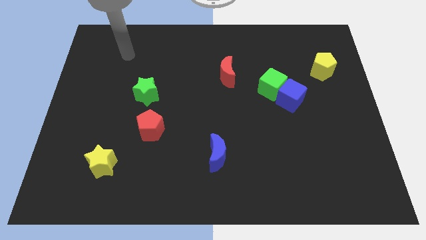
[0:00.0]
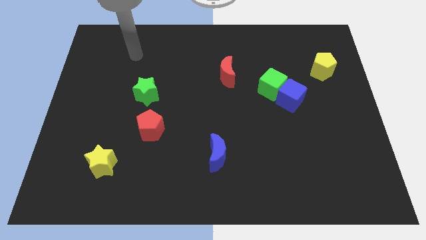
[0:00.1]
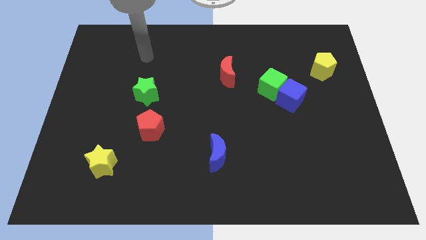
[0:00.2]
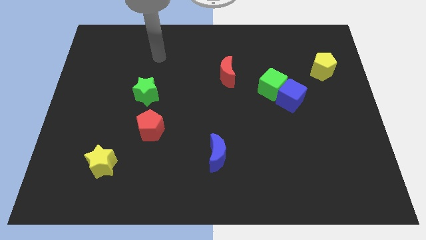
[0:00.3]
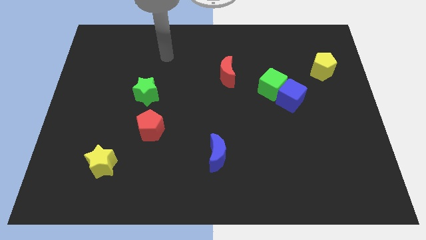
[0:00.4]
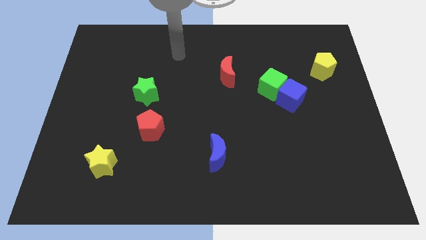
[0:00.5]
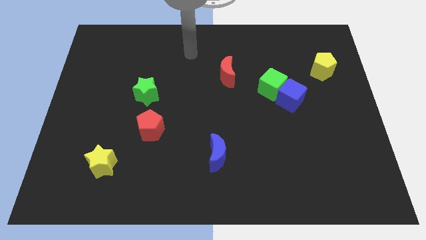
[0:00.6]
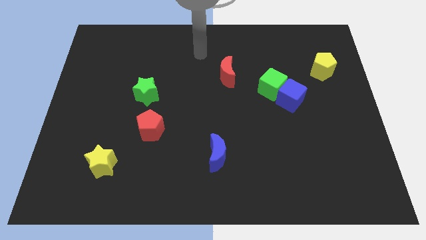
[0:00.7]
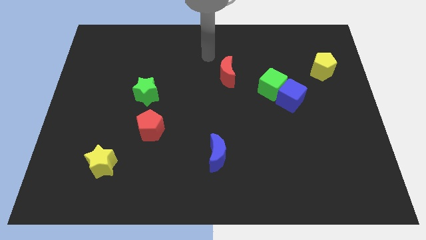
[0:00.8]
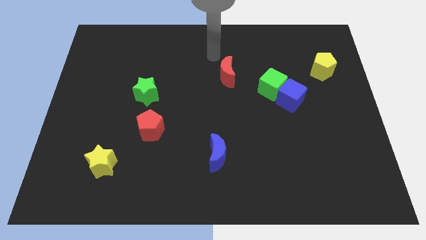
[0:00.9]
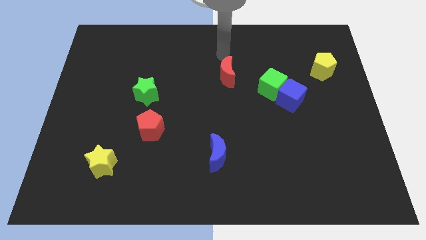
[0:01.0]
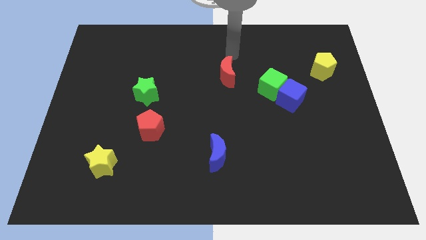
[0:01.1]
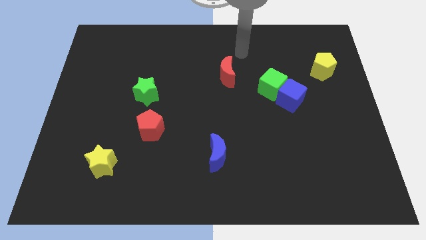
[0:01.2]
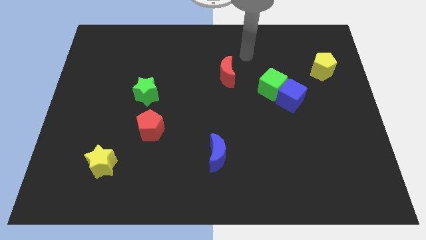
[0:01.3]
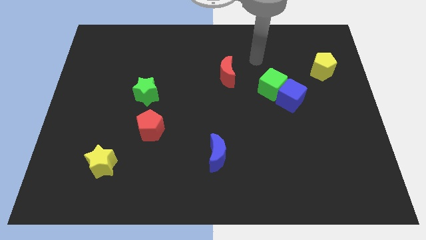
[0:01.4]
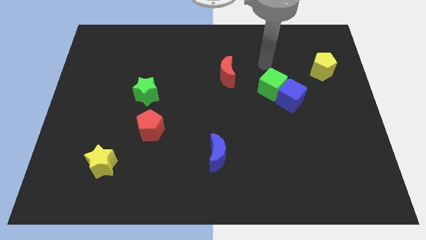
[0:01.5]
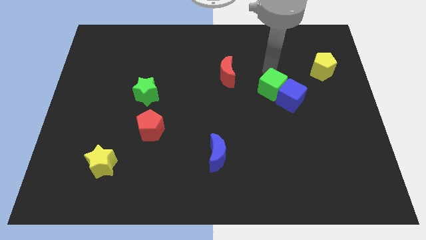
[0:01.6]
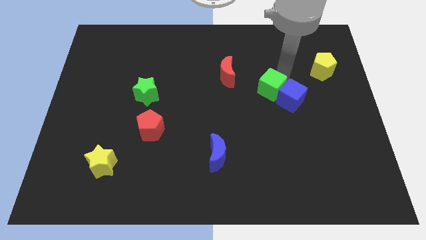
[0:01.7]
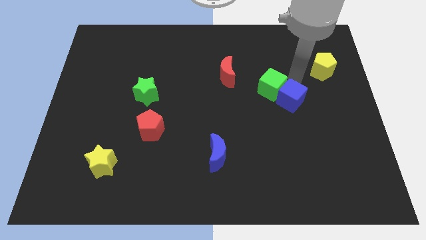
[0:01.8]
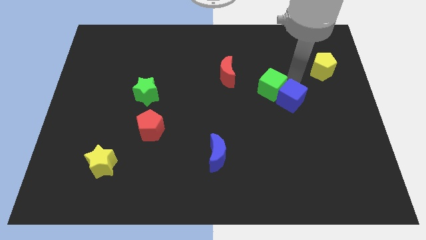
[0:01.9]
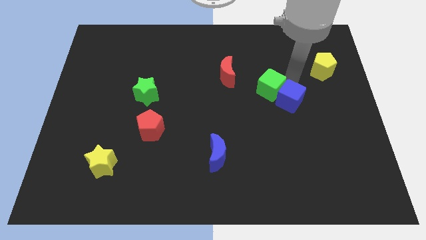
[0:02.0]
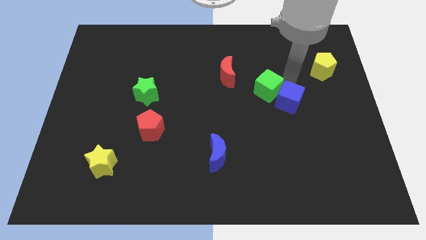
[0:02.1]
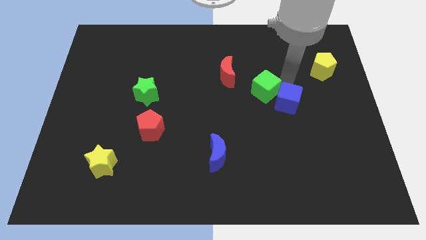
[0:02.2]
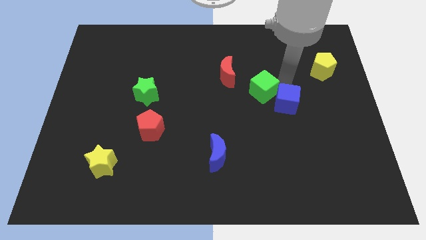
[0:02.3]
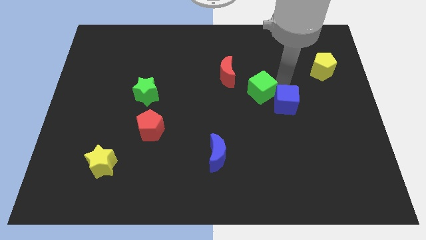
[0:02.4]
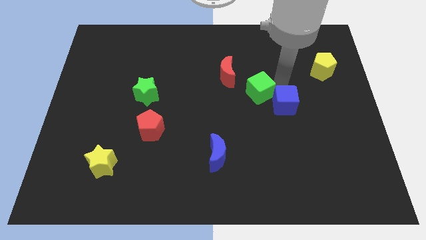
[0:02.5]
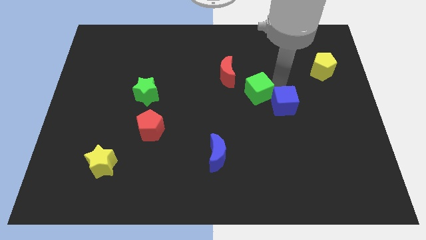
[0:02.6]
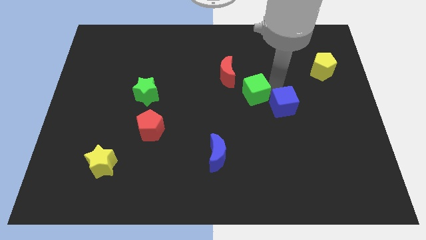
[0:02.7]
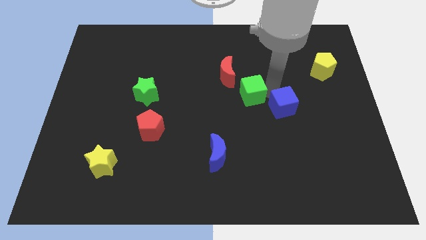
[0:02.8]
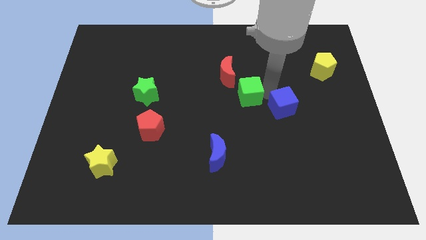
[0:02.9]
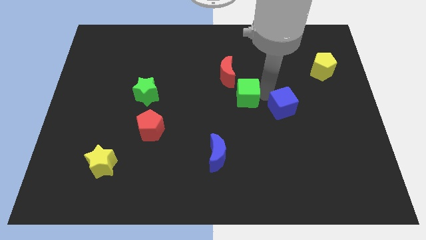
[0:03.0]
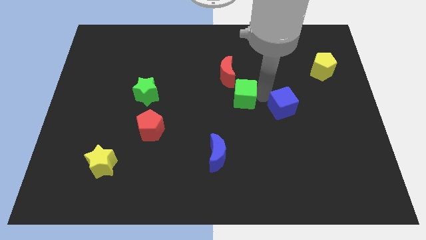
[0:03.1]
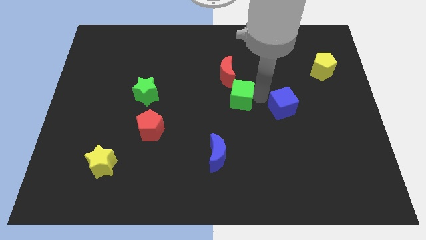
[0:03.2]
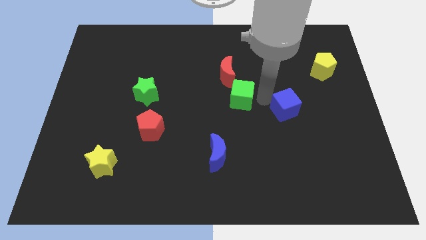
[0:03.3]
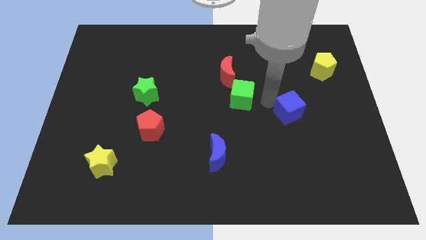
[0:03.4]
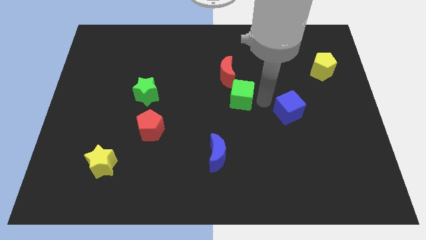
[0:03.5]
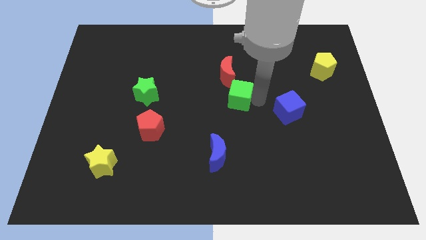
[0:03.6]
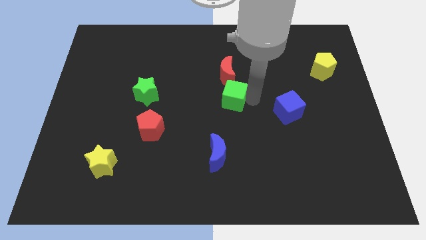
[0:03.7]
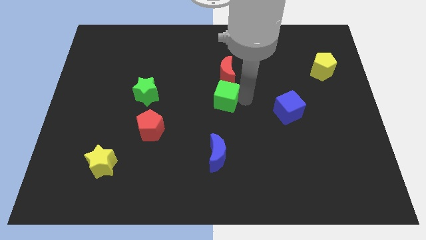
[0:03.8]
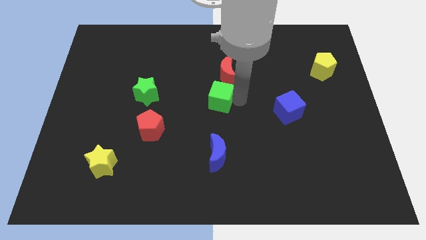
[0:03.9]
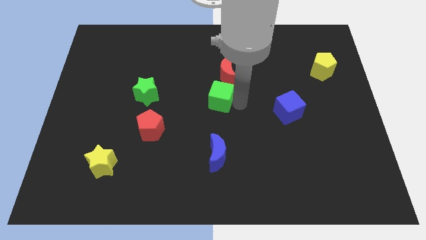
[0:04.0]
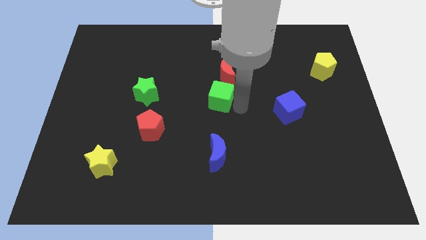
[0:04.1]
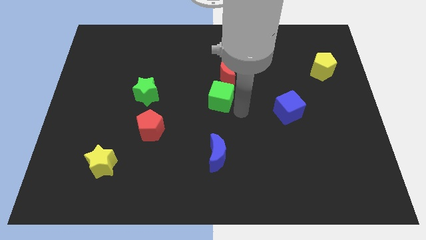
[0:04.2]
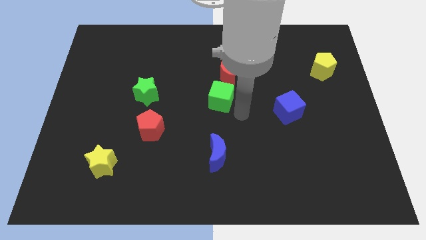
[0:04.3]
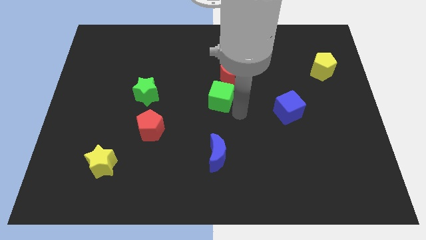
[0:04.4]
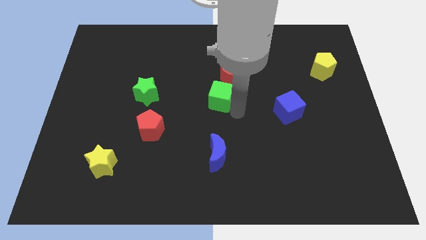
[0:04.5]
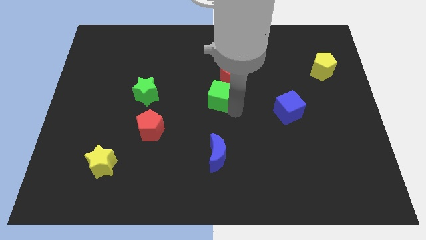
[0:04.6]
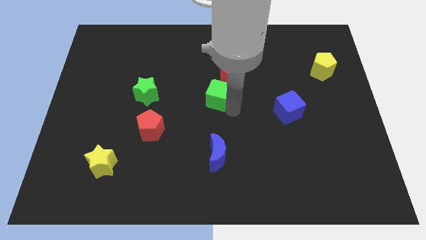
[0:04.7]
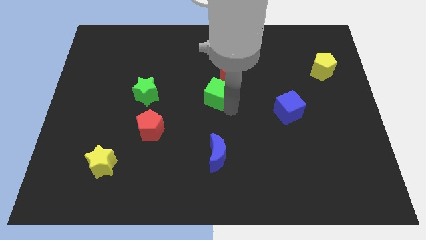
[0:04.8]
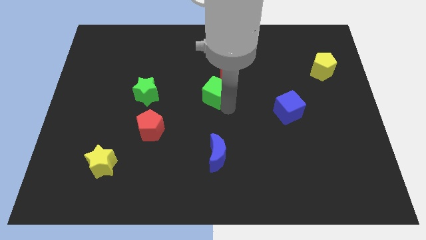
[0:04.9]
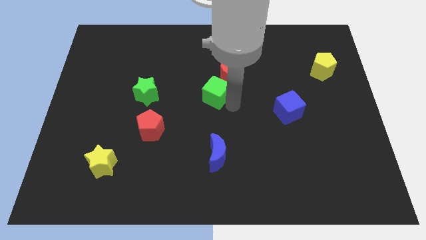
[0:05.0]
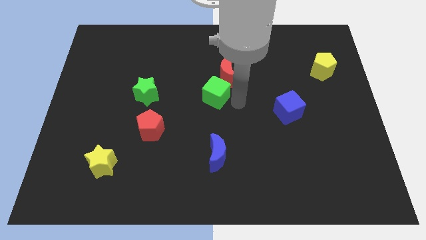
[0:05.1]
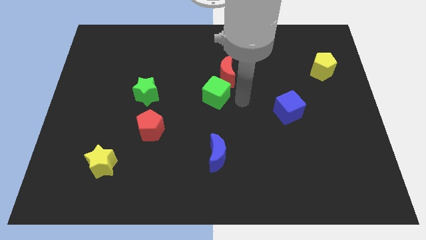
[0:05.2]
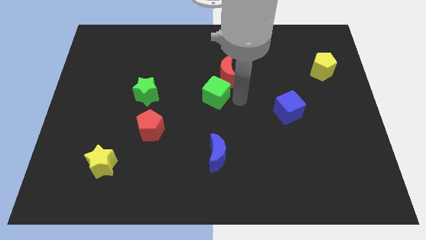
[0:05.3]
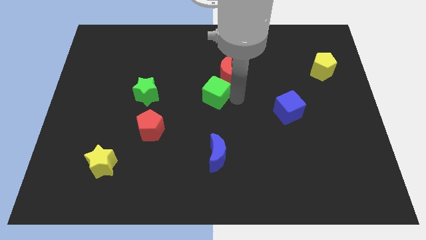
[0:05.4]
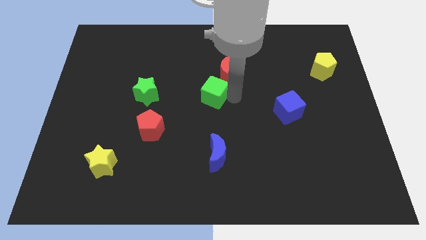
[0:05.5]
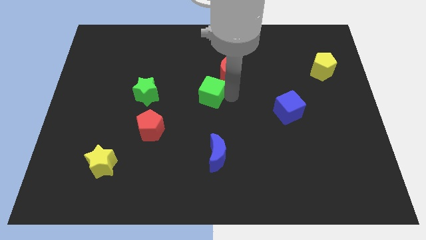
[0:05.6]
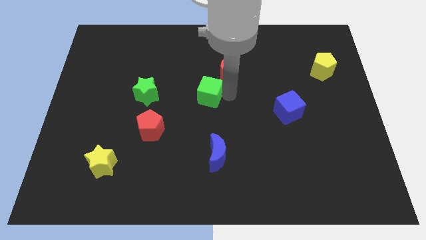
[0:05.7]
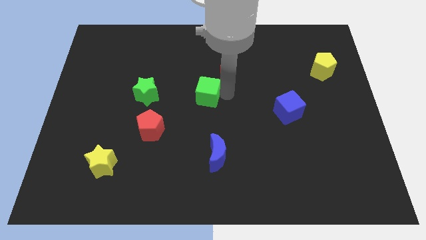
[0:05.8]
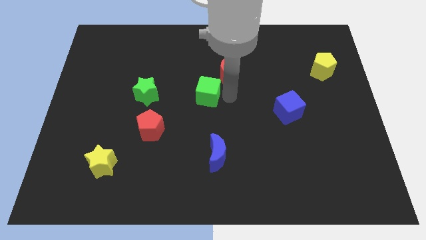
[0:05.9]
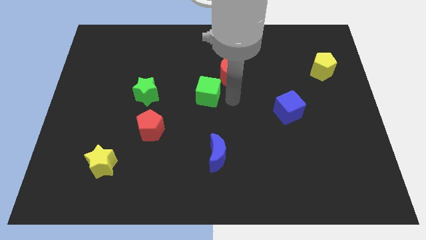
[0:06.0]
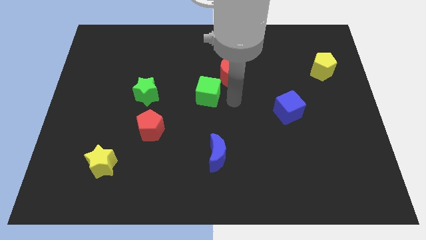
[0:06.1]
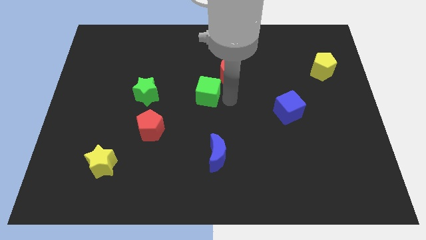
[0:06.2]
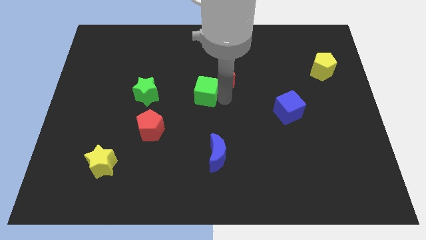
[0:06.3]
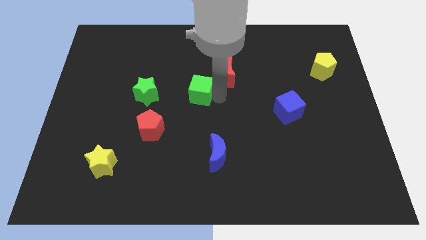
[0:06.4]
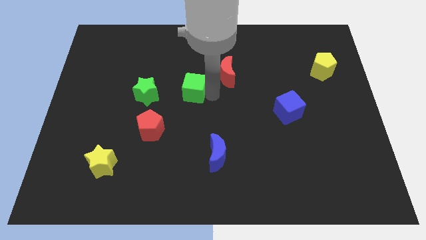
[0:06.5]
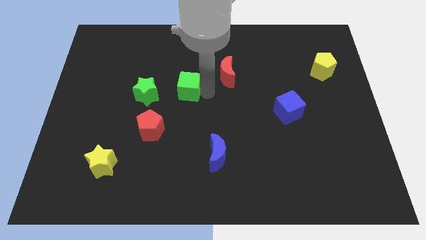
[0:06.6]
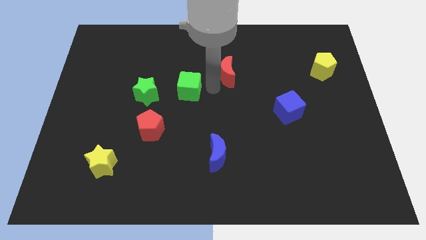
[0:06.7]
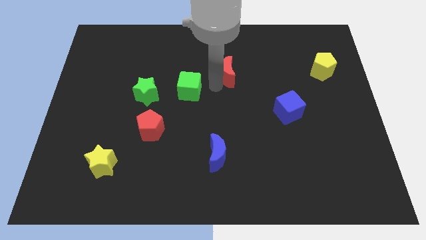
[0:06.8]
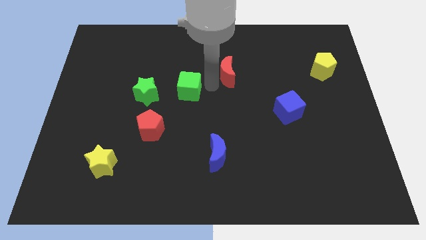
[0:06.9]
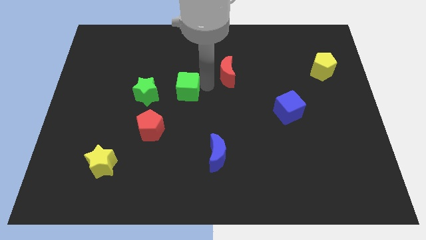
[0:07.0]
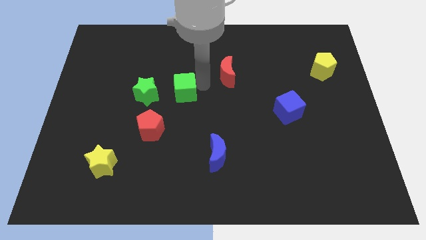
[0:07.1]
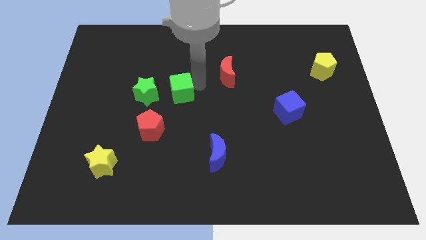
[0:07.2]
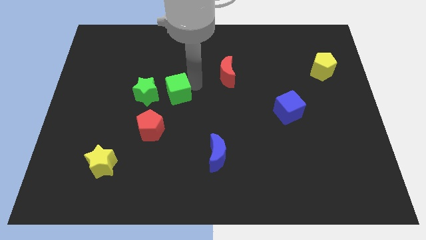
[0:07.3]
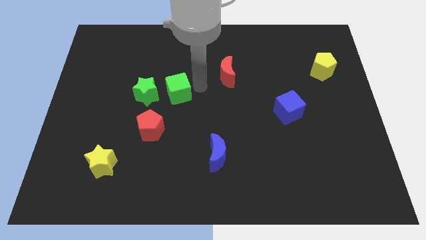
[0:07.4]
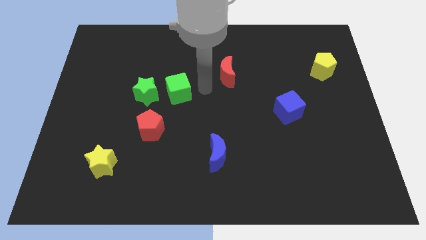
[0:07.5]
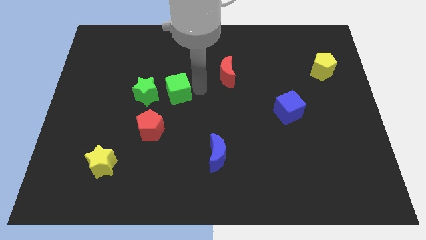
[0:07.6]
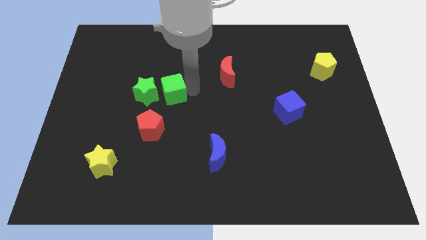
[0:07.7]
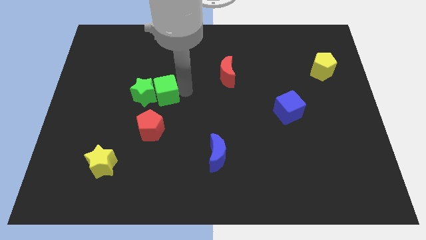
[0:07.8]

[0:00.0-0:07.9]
slide the green cube close to the green star
